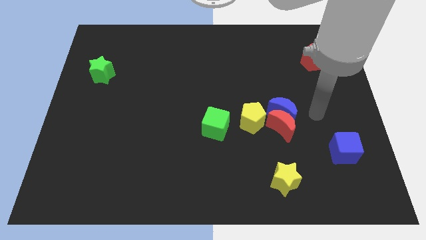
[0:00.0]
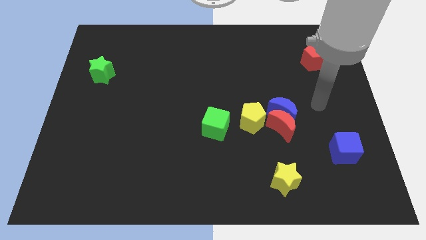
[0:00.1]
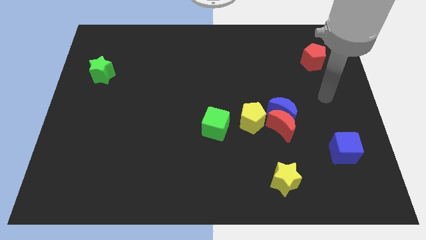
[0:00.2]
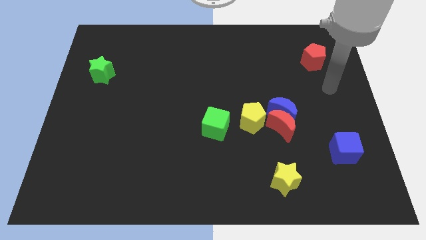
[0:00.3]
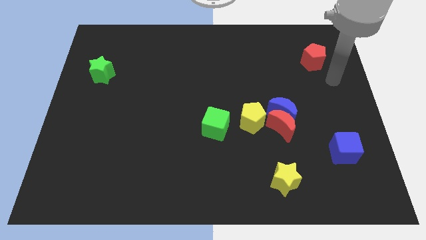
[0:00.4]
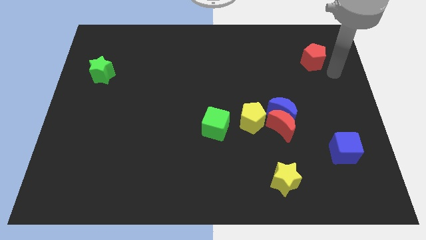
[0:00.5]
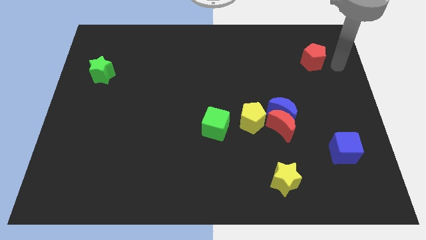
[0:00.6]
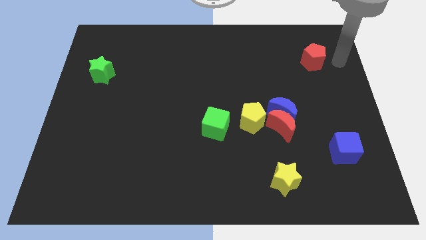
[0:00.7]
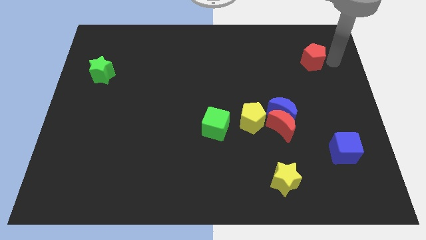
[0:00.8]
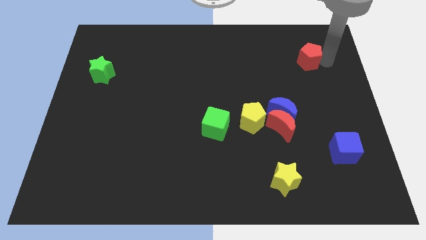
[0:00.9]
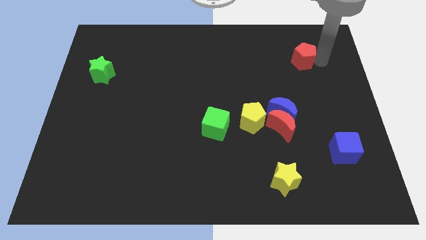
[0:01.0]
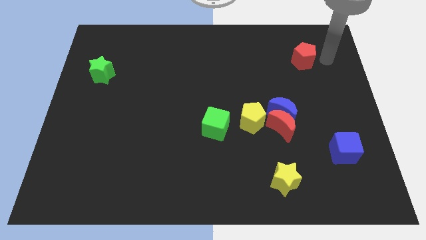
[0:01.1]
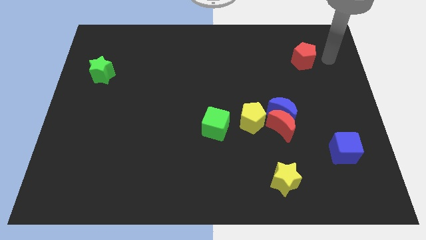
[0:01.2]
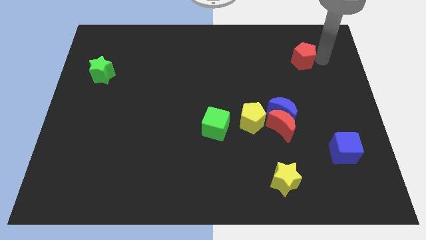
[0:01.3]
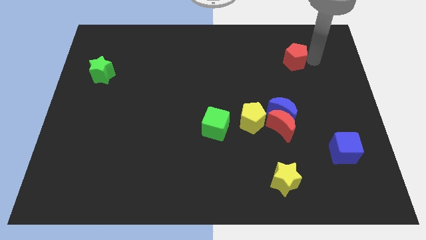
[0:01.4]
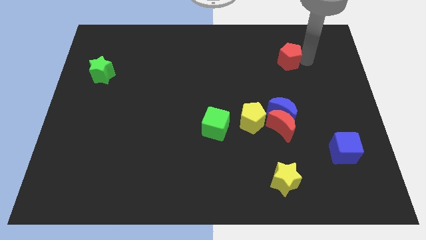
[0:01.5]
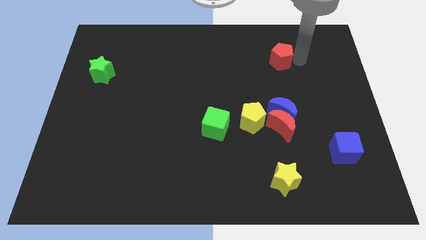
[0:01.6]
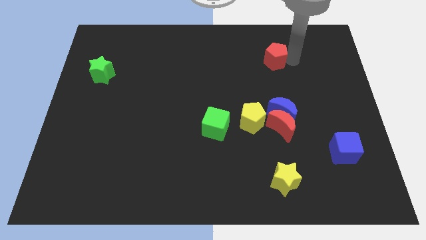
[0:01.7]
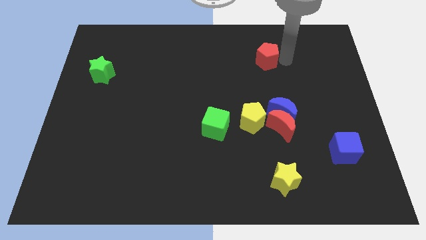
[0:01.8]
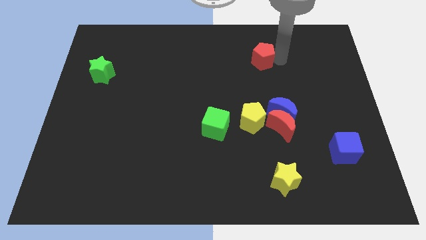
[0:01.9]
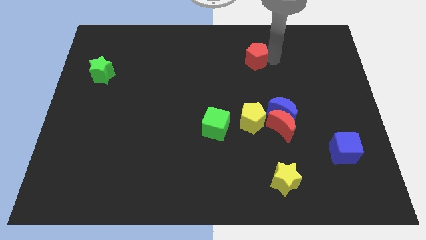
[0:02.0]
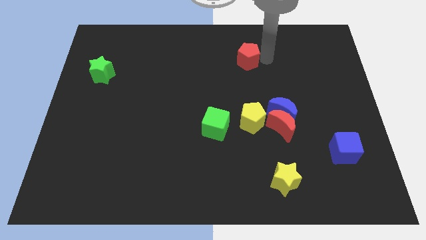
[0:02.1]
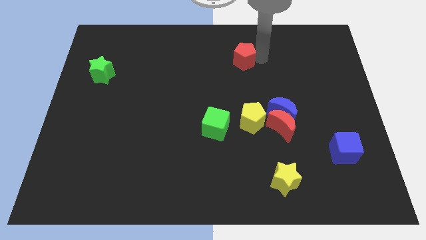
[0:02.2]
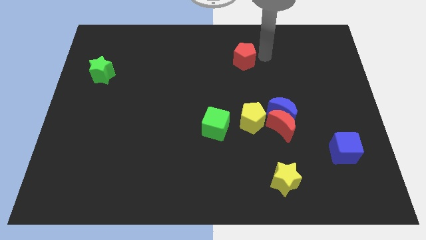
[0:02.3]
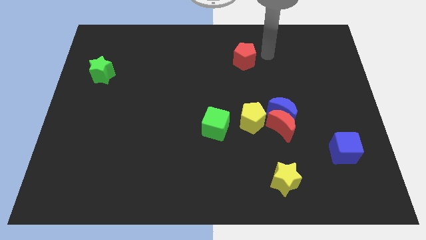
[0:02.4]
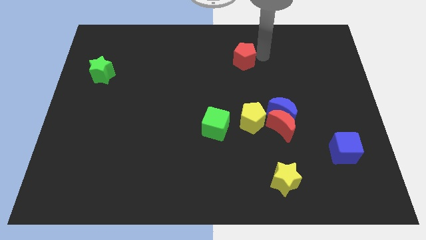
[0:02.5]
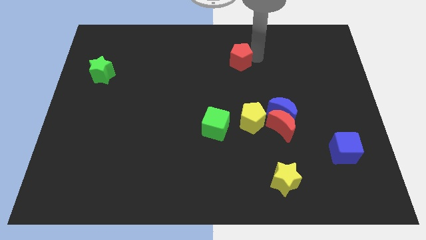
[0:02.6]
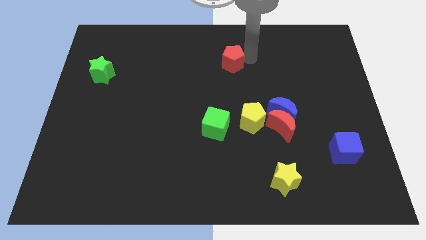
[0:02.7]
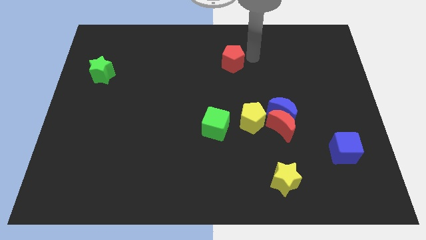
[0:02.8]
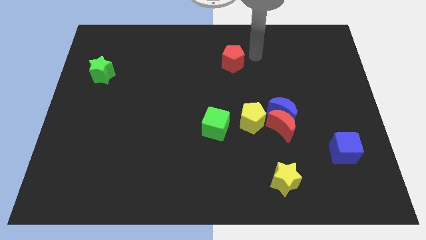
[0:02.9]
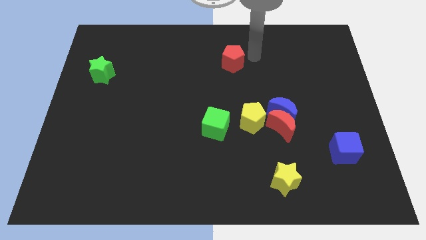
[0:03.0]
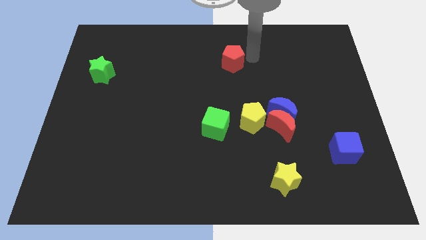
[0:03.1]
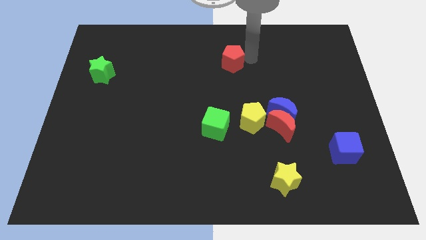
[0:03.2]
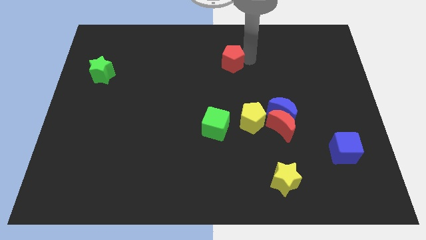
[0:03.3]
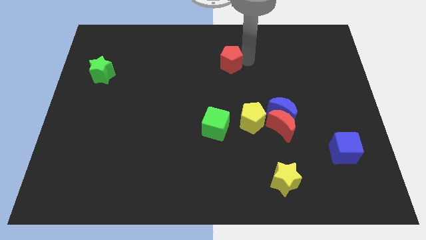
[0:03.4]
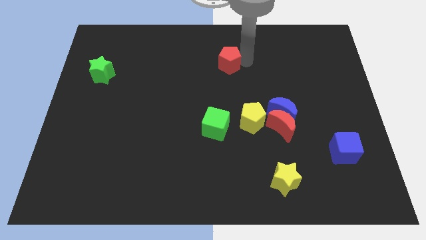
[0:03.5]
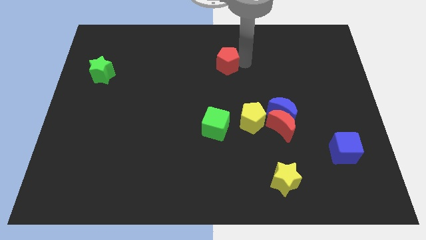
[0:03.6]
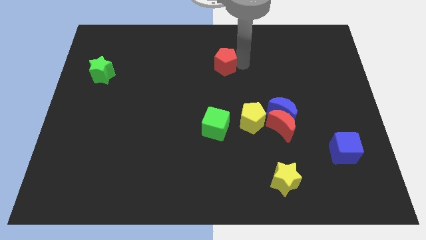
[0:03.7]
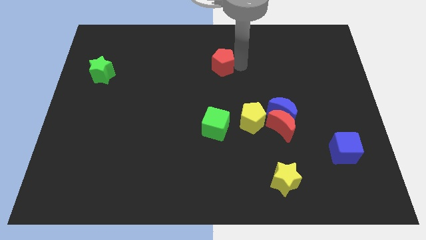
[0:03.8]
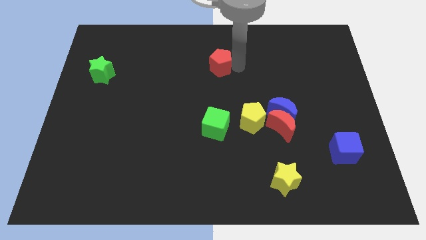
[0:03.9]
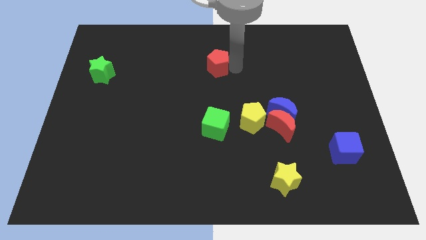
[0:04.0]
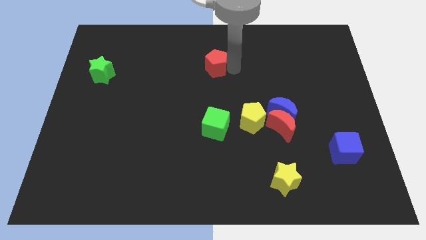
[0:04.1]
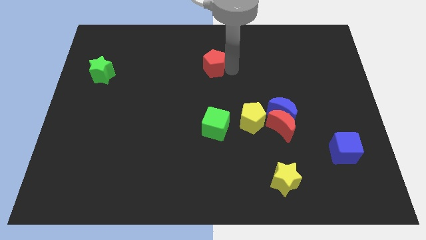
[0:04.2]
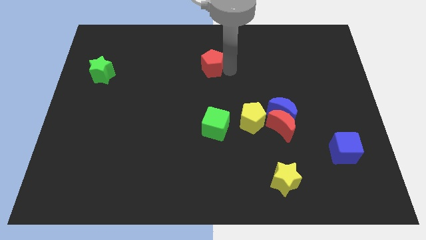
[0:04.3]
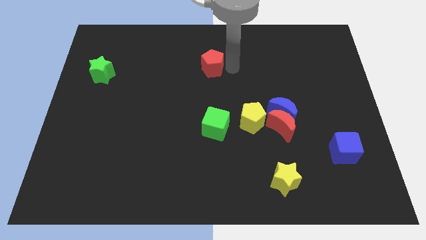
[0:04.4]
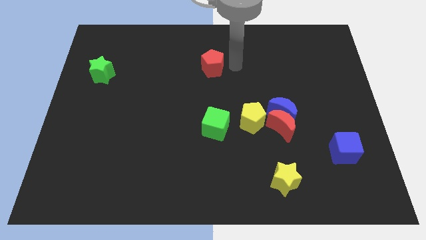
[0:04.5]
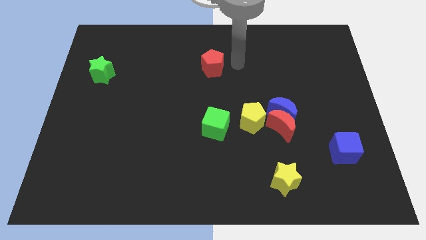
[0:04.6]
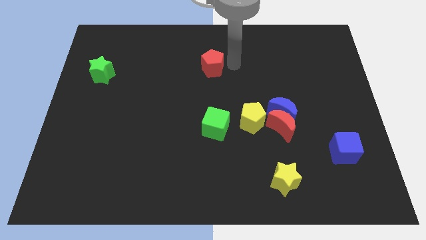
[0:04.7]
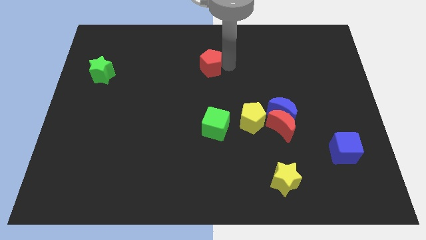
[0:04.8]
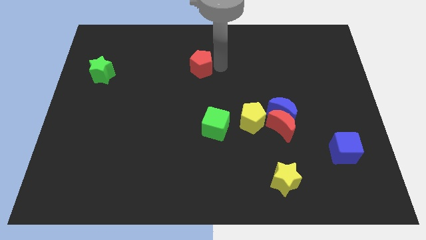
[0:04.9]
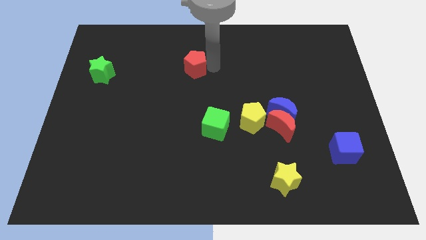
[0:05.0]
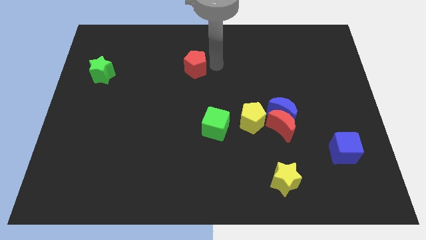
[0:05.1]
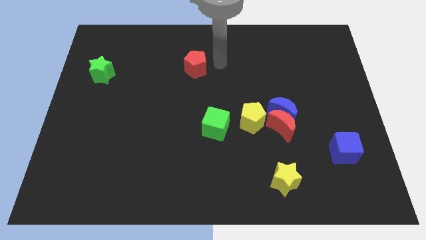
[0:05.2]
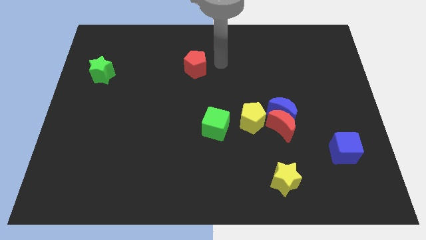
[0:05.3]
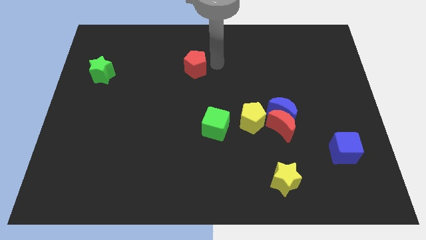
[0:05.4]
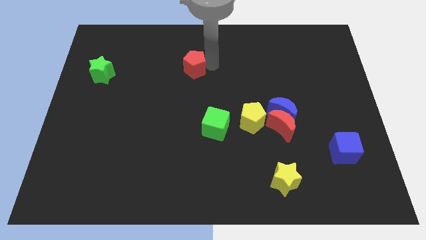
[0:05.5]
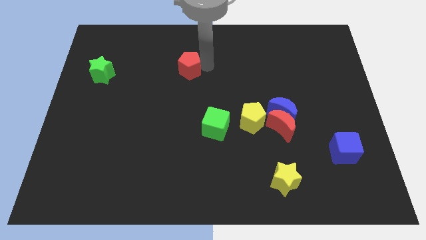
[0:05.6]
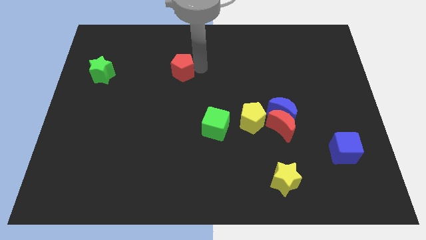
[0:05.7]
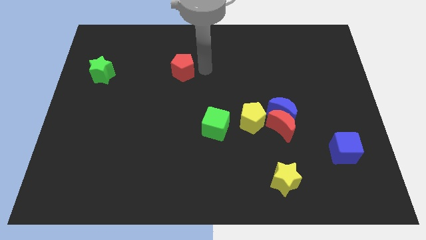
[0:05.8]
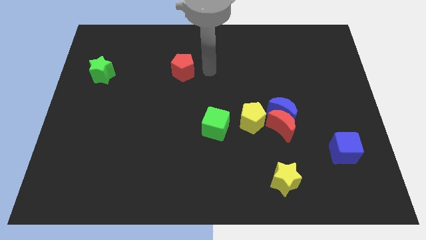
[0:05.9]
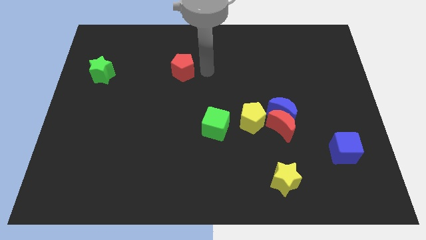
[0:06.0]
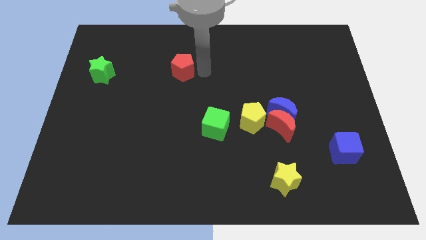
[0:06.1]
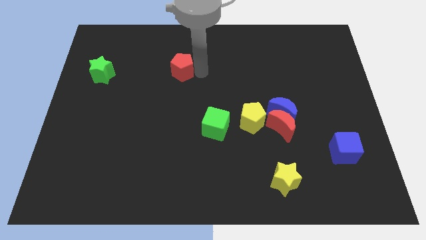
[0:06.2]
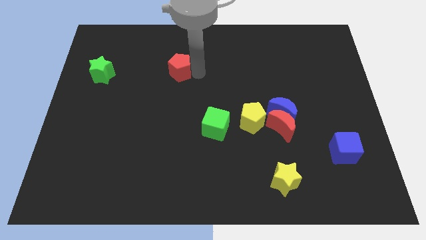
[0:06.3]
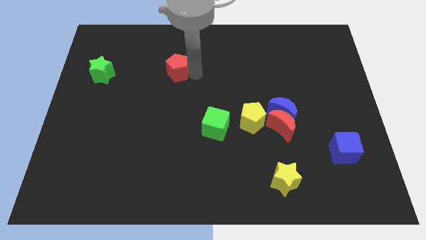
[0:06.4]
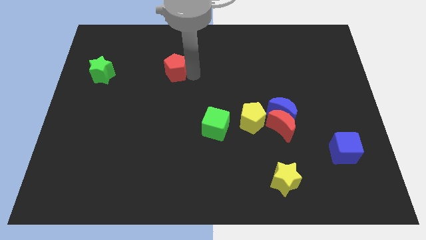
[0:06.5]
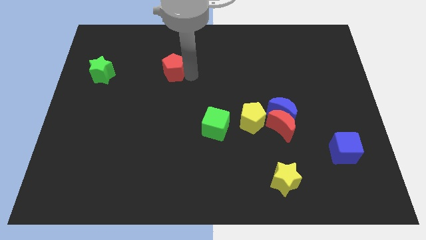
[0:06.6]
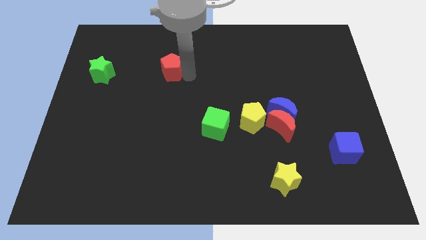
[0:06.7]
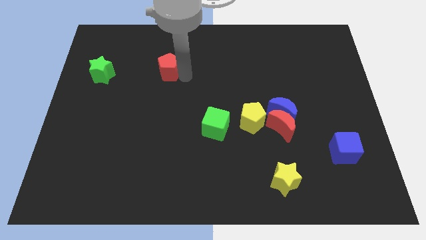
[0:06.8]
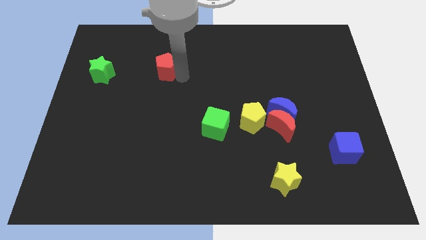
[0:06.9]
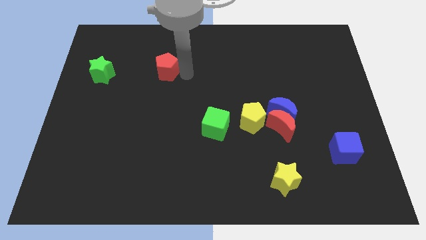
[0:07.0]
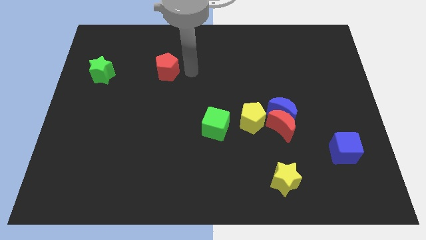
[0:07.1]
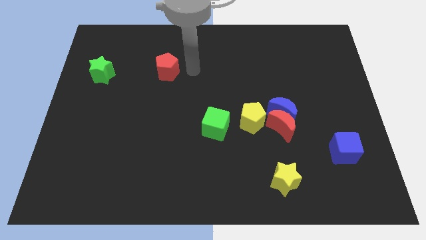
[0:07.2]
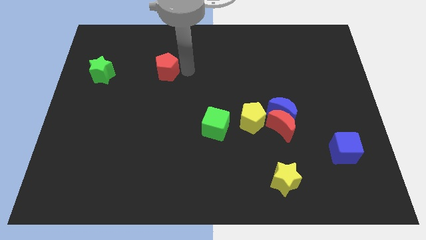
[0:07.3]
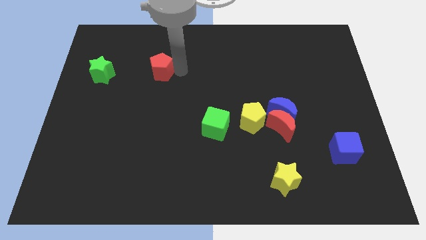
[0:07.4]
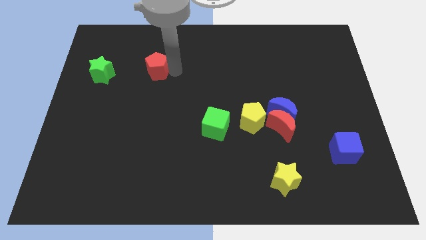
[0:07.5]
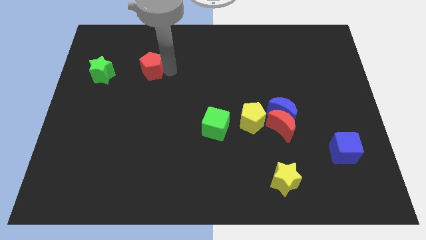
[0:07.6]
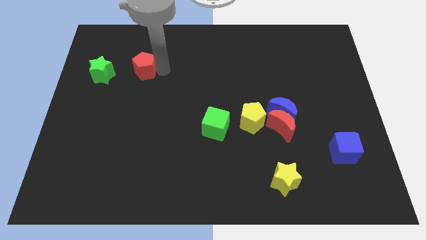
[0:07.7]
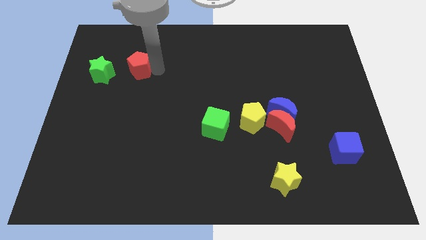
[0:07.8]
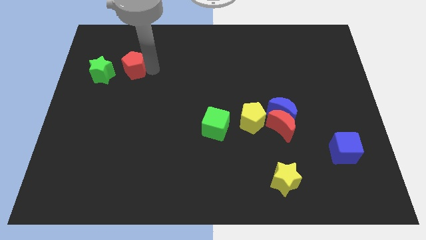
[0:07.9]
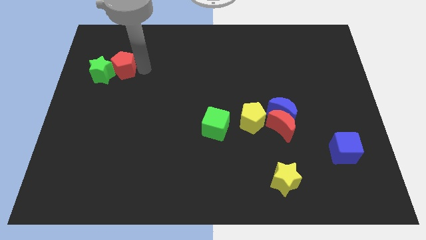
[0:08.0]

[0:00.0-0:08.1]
move the red pentagon to the green star
